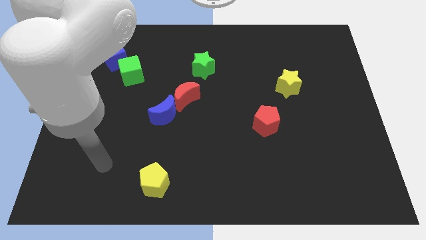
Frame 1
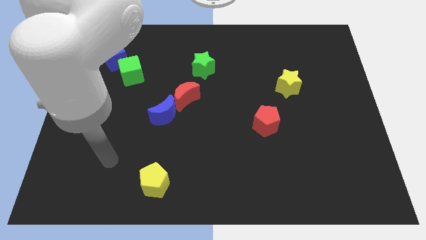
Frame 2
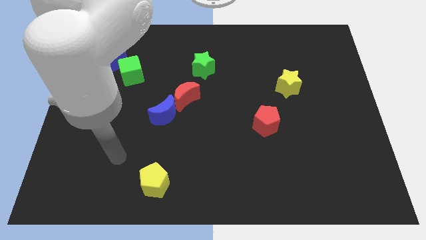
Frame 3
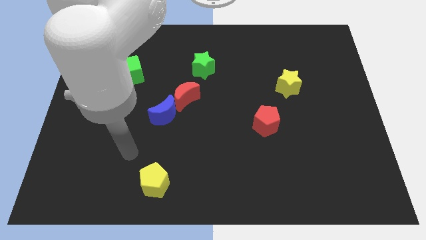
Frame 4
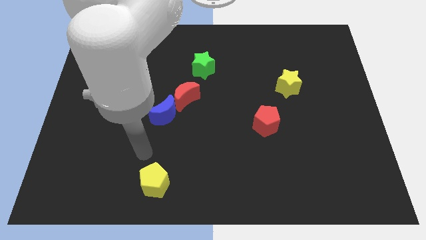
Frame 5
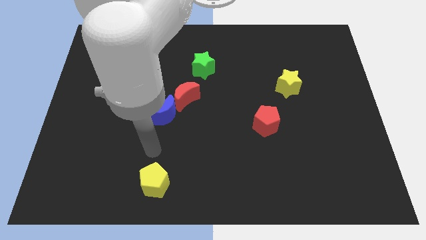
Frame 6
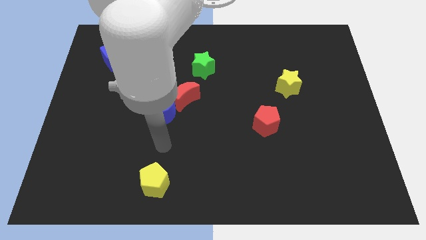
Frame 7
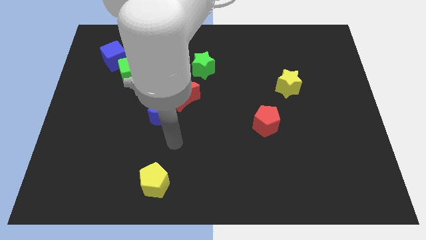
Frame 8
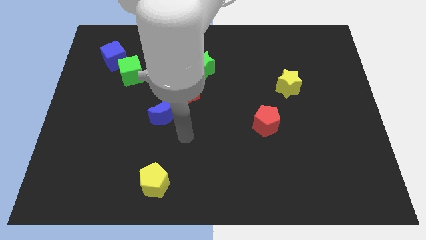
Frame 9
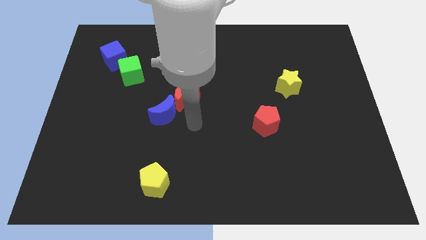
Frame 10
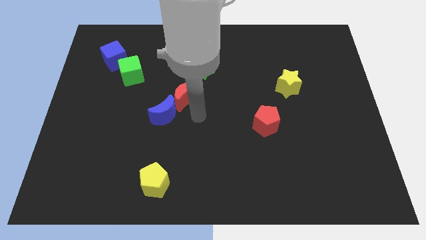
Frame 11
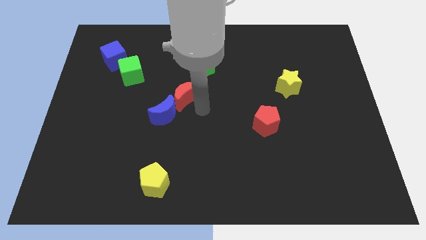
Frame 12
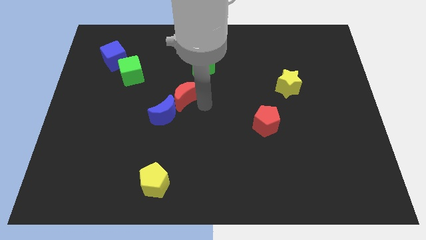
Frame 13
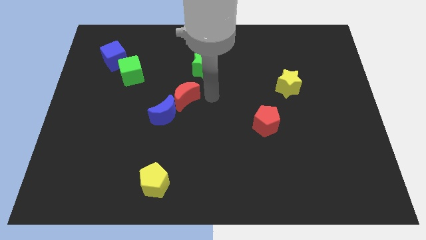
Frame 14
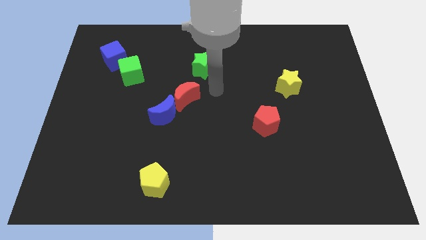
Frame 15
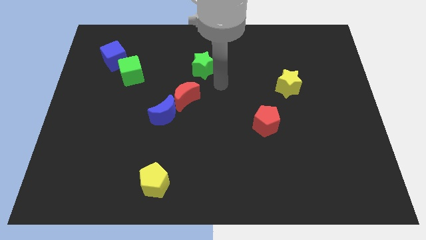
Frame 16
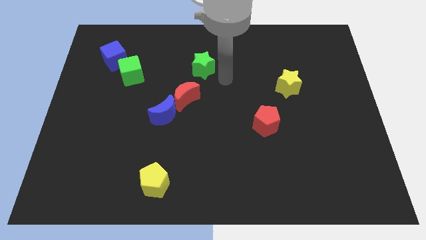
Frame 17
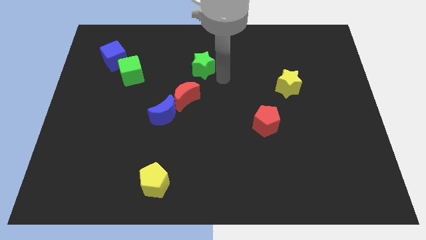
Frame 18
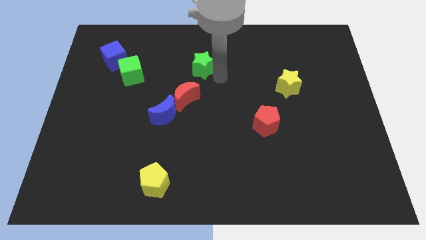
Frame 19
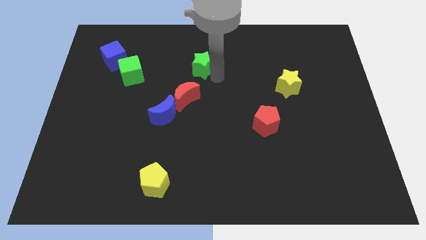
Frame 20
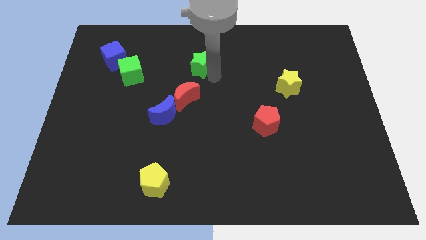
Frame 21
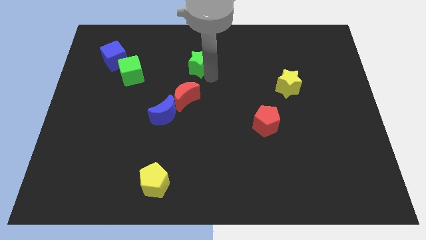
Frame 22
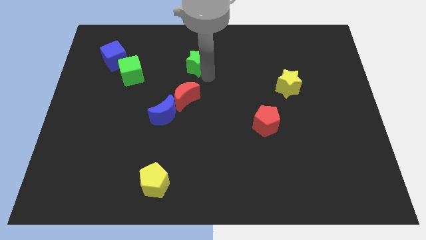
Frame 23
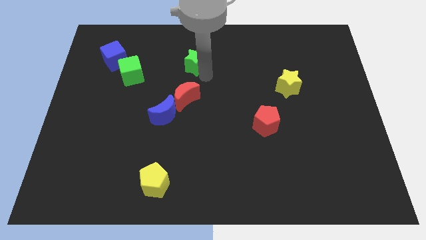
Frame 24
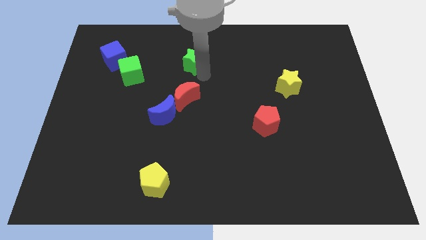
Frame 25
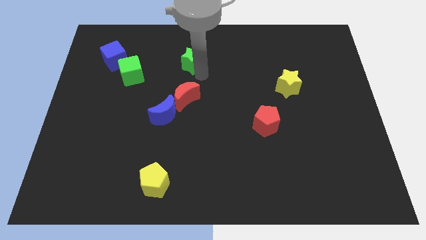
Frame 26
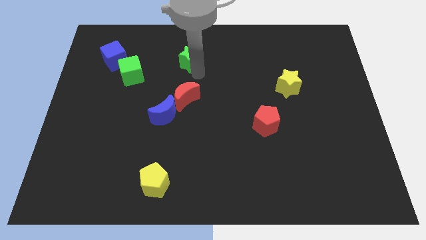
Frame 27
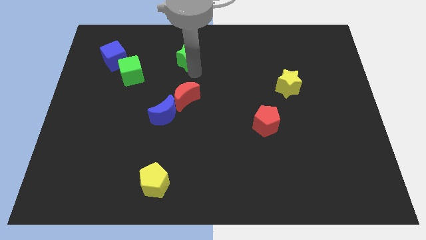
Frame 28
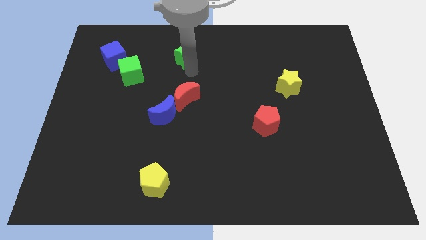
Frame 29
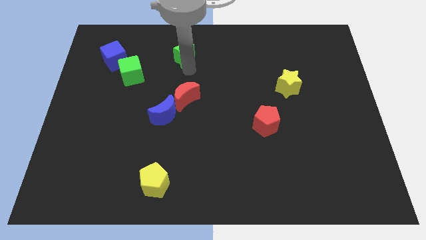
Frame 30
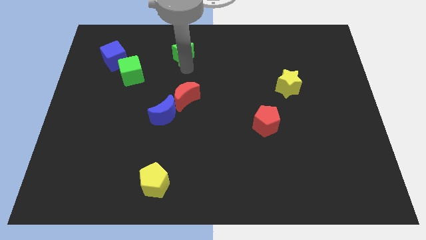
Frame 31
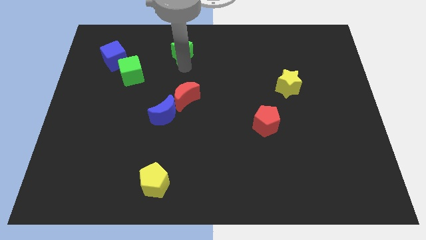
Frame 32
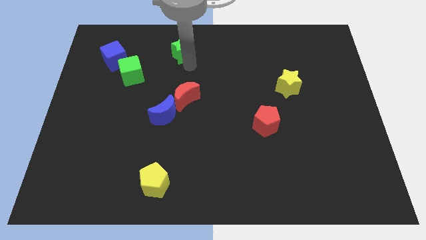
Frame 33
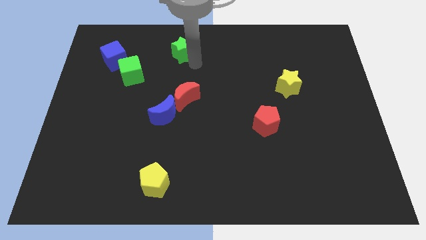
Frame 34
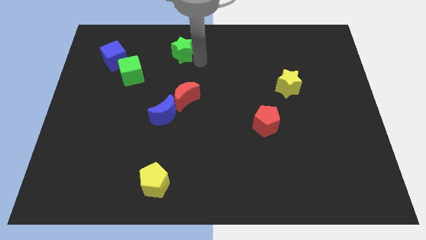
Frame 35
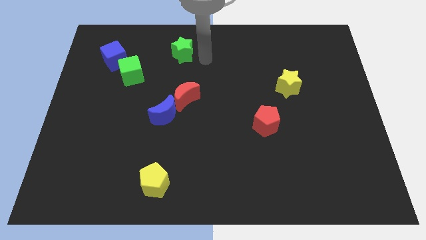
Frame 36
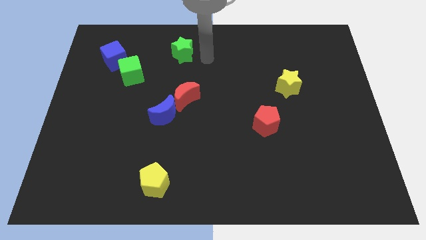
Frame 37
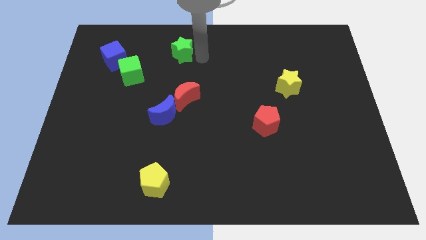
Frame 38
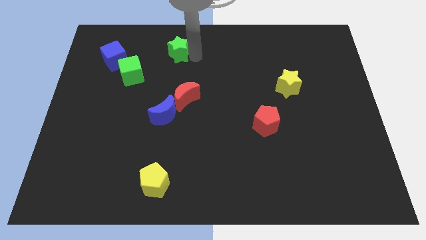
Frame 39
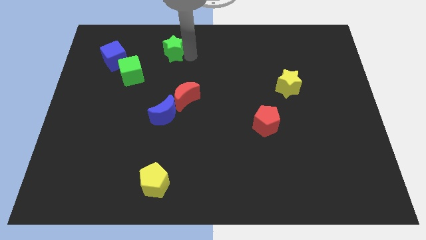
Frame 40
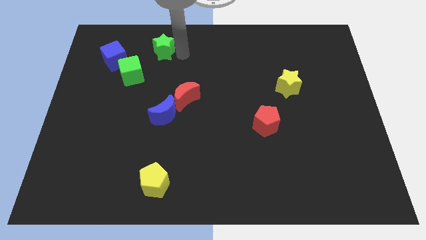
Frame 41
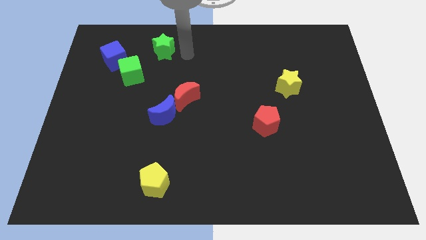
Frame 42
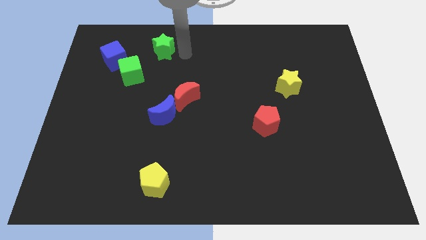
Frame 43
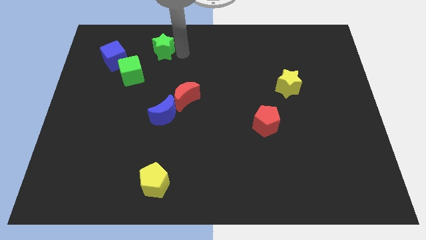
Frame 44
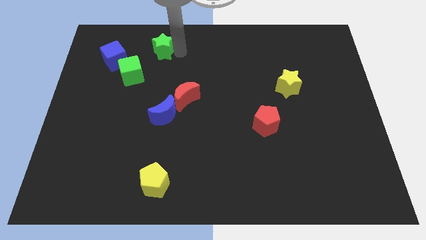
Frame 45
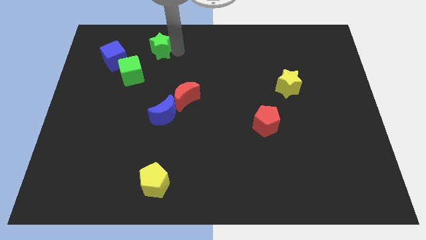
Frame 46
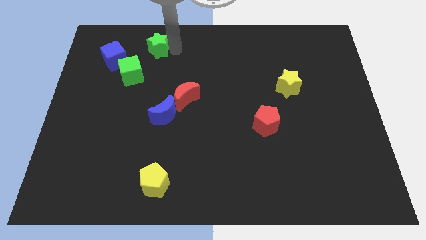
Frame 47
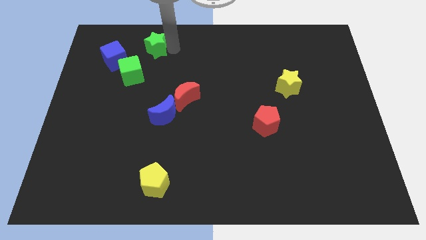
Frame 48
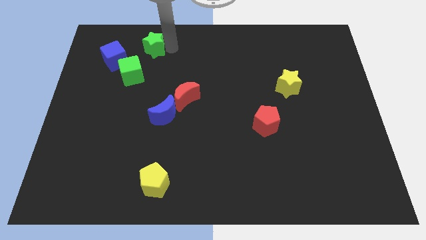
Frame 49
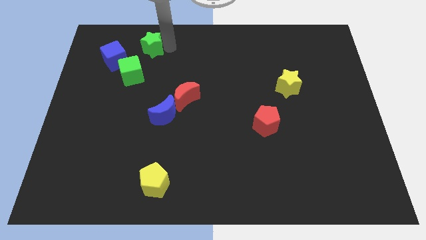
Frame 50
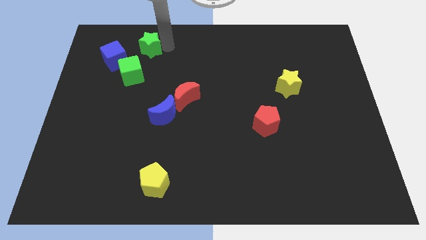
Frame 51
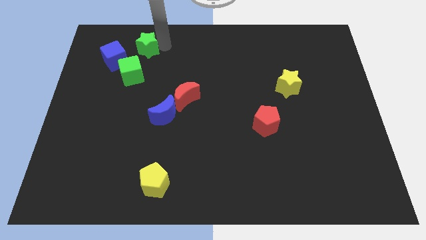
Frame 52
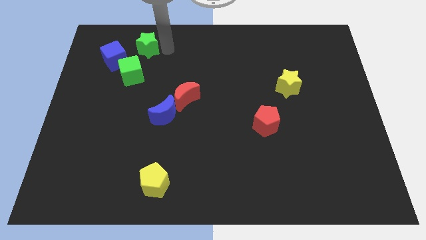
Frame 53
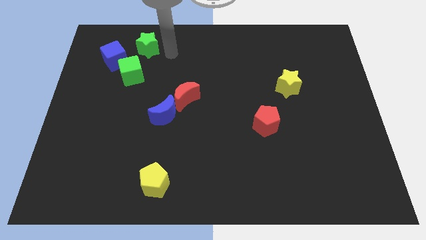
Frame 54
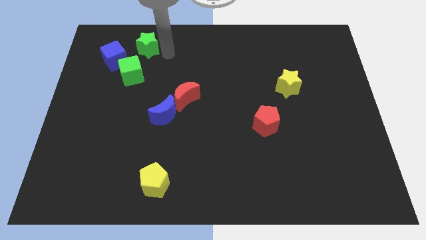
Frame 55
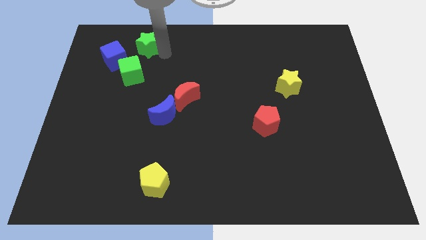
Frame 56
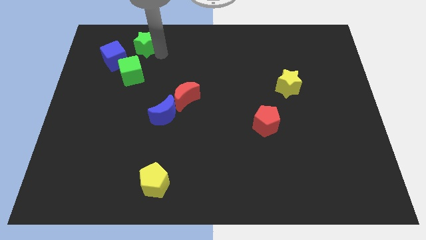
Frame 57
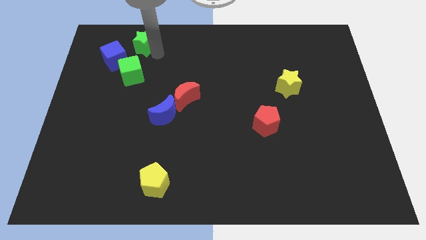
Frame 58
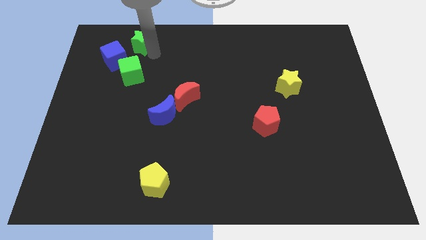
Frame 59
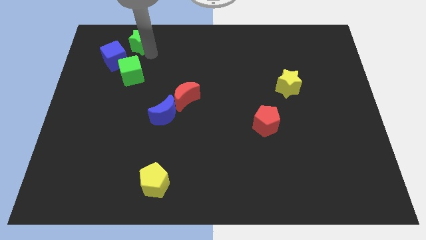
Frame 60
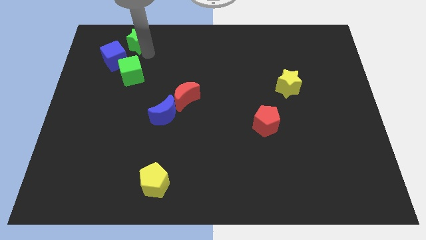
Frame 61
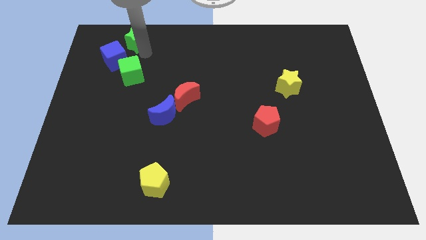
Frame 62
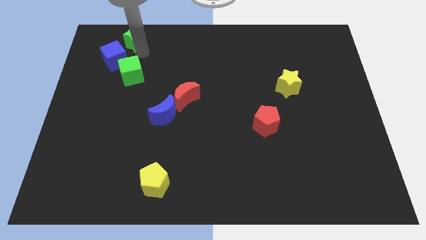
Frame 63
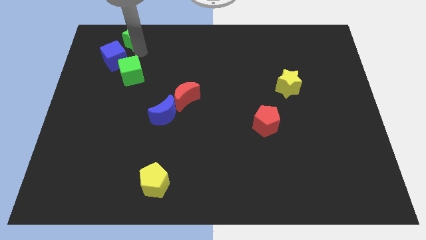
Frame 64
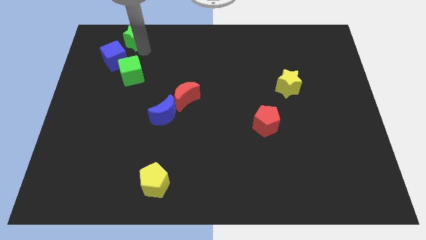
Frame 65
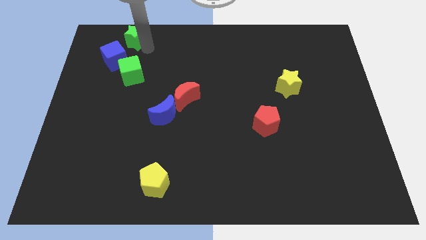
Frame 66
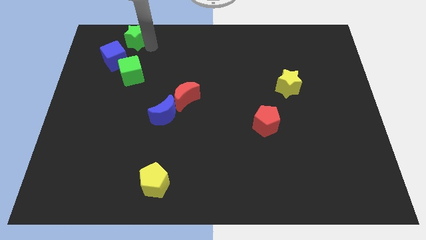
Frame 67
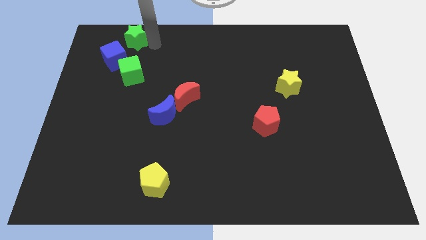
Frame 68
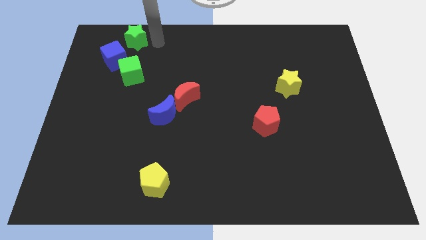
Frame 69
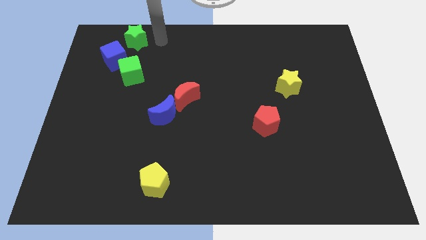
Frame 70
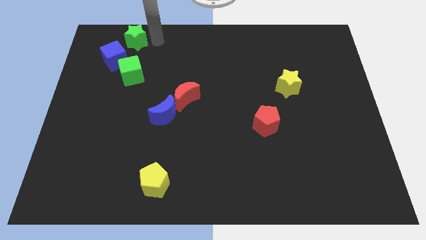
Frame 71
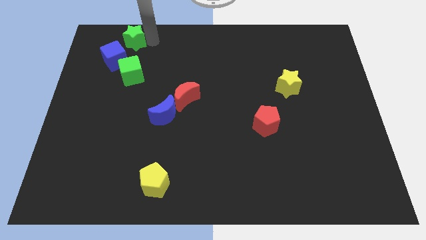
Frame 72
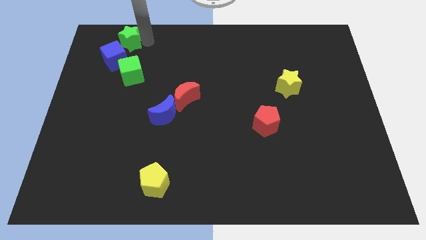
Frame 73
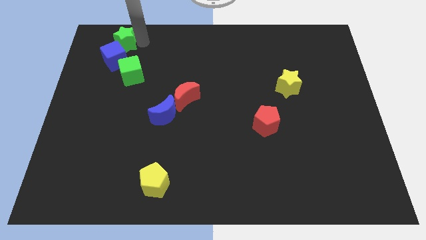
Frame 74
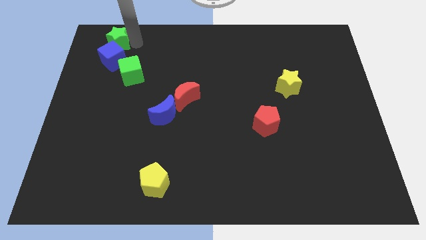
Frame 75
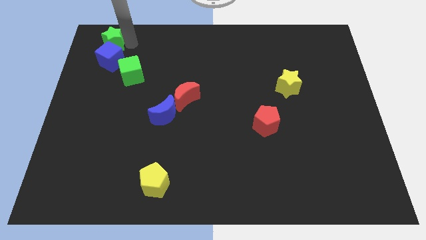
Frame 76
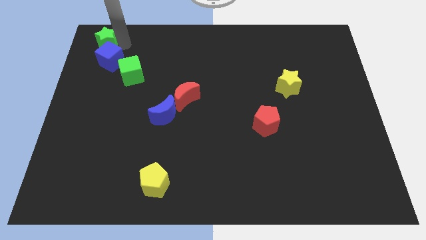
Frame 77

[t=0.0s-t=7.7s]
push the green star to the top left
